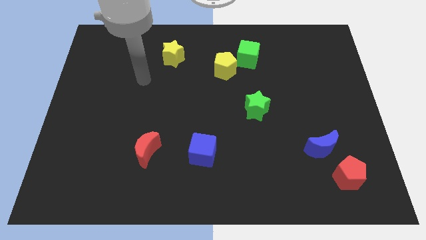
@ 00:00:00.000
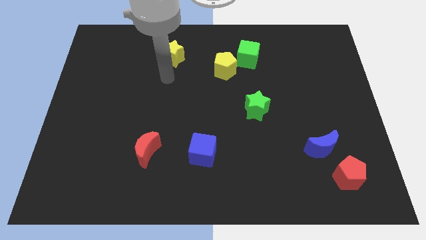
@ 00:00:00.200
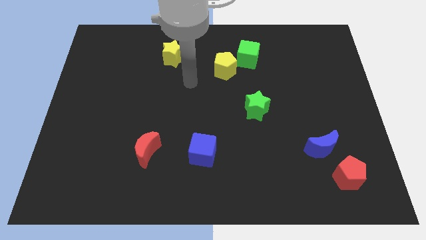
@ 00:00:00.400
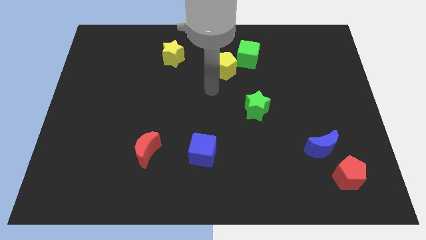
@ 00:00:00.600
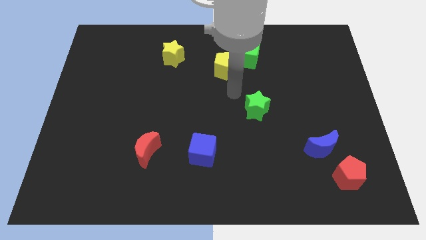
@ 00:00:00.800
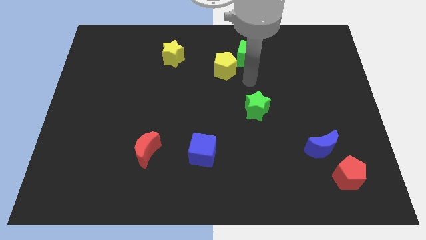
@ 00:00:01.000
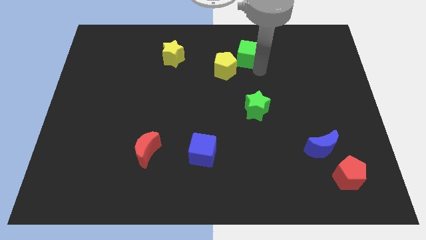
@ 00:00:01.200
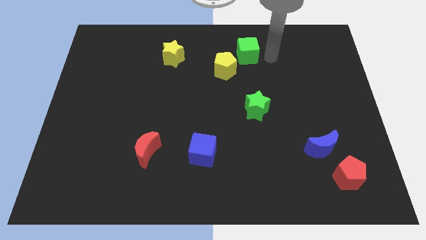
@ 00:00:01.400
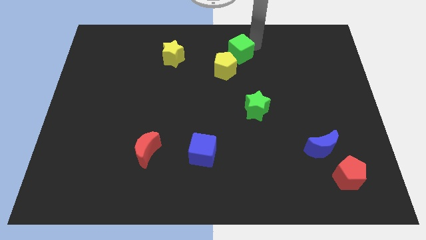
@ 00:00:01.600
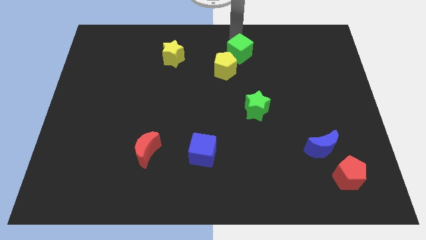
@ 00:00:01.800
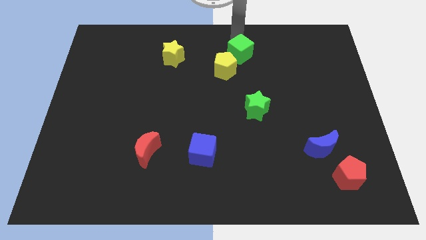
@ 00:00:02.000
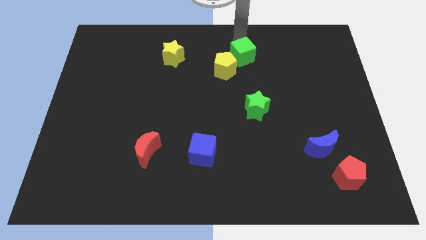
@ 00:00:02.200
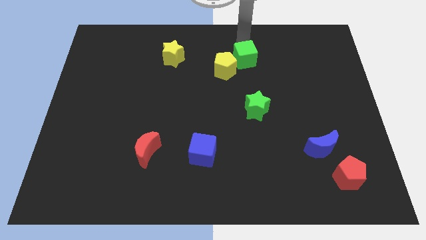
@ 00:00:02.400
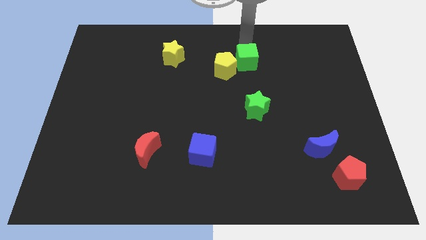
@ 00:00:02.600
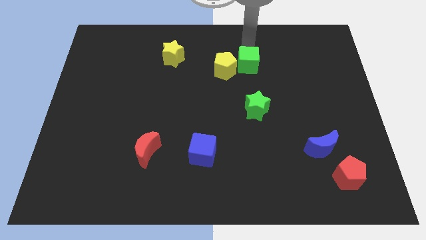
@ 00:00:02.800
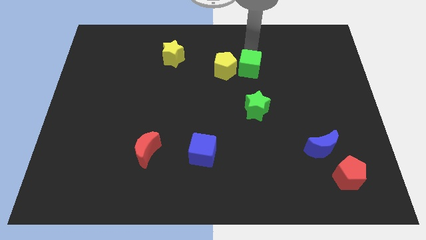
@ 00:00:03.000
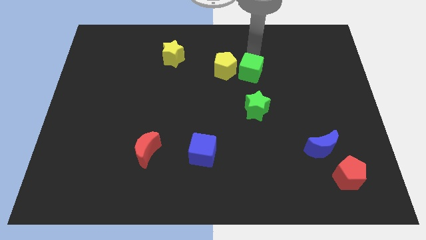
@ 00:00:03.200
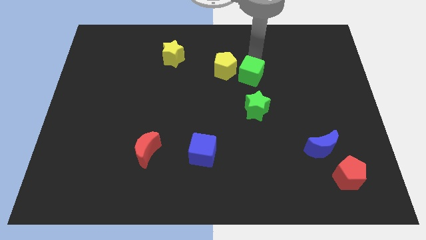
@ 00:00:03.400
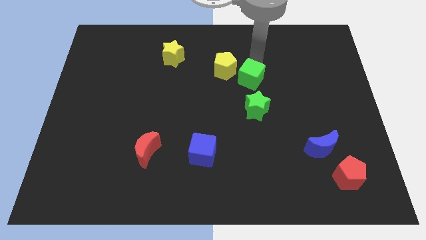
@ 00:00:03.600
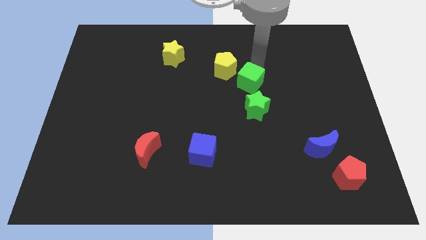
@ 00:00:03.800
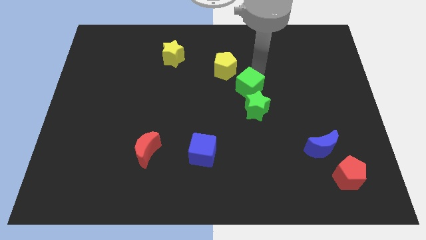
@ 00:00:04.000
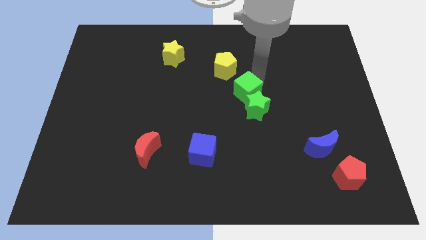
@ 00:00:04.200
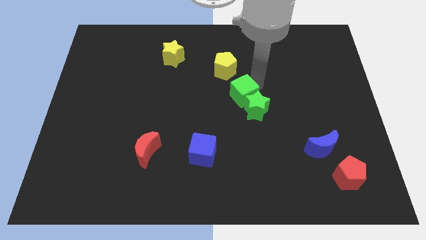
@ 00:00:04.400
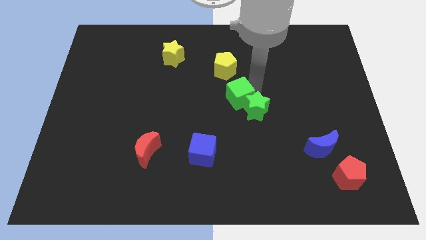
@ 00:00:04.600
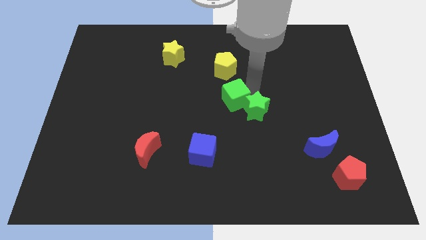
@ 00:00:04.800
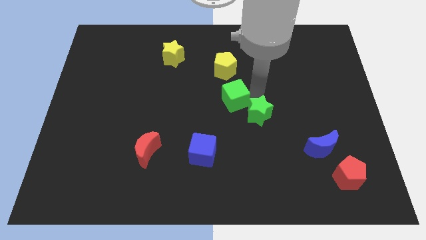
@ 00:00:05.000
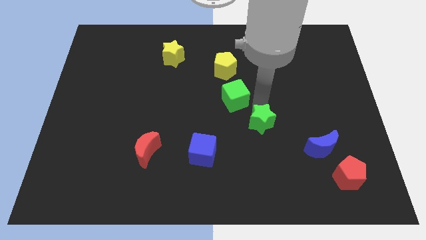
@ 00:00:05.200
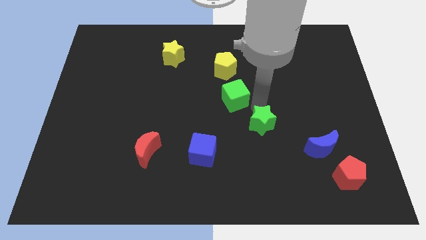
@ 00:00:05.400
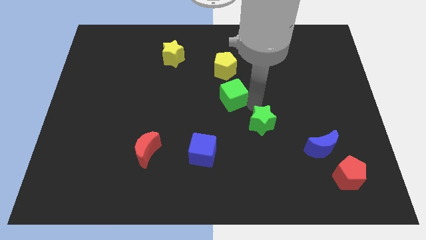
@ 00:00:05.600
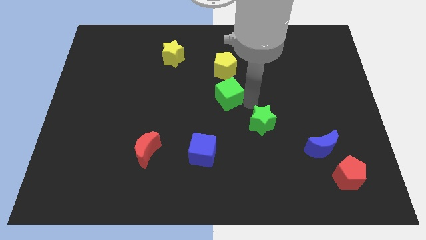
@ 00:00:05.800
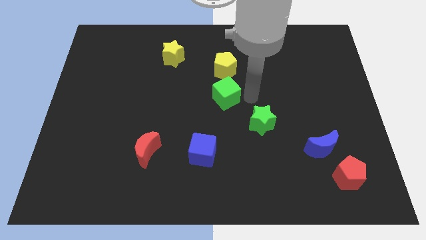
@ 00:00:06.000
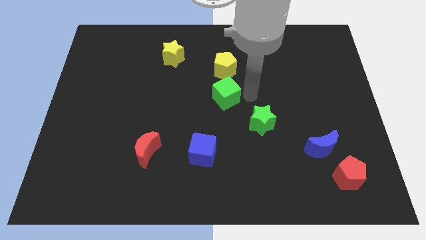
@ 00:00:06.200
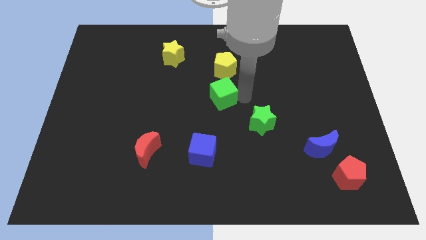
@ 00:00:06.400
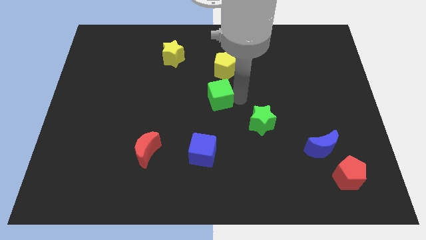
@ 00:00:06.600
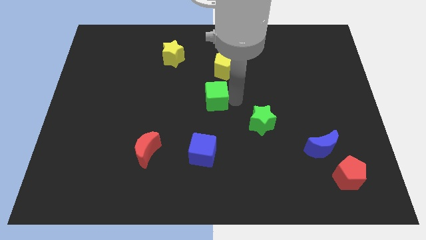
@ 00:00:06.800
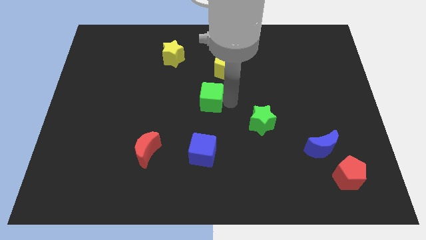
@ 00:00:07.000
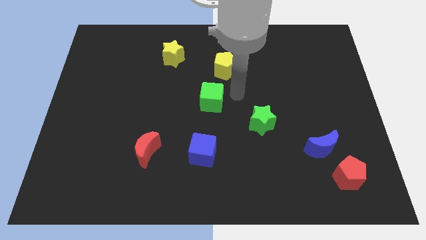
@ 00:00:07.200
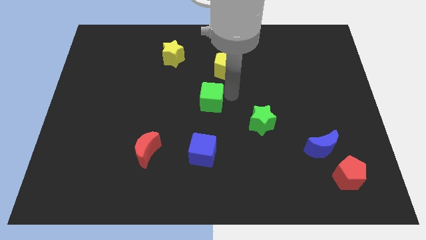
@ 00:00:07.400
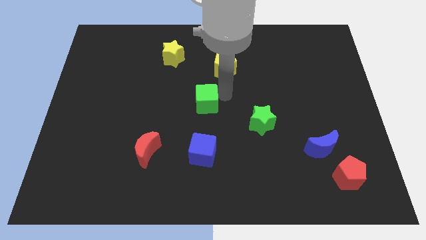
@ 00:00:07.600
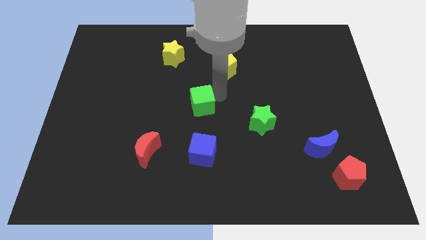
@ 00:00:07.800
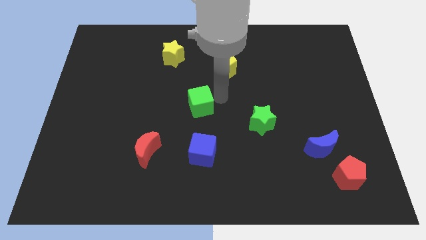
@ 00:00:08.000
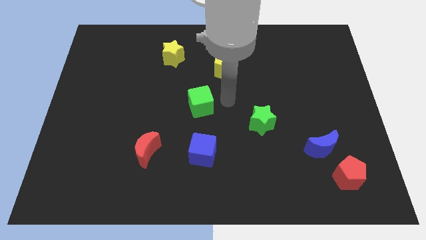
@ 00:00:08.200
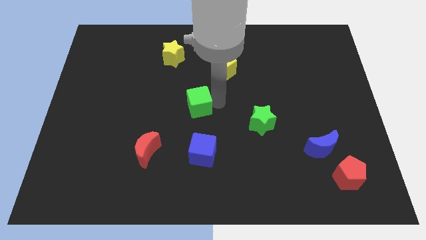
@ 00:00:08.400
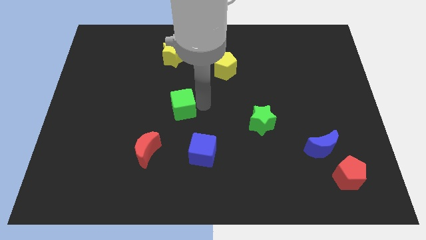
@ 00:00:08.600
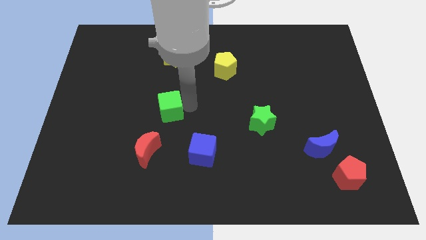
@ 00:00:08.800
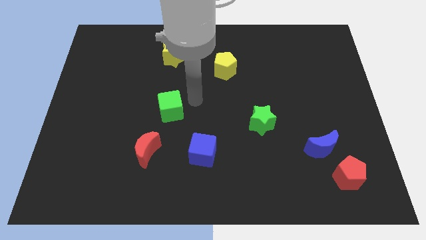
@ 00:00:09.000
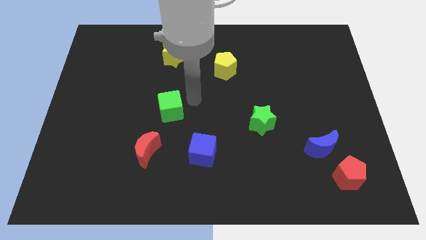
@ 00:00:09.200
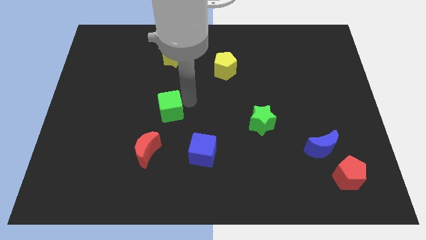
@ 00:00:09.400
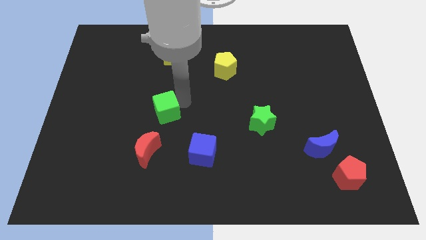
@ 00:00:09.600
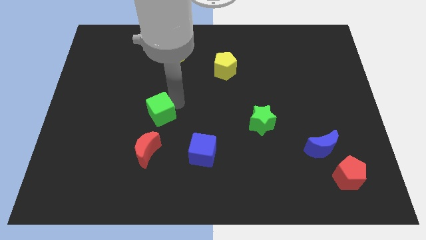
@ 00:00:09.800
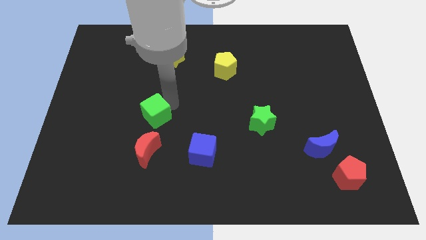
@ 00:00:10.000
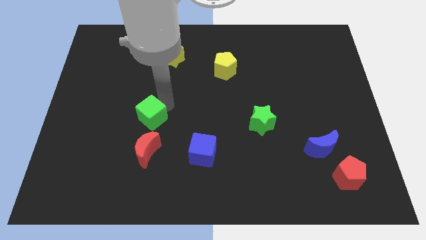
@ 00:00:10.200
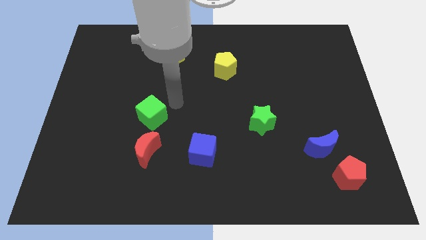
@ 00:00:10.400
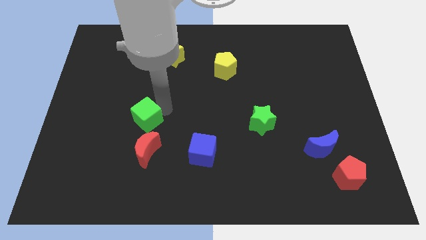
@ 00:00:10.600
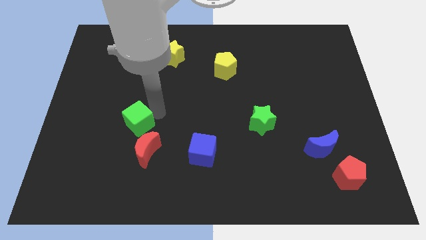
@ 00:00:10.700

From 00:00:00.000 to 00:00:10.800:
slide the green cube diagonally up and to the left of the red moon

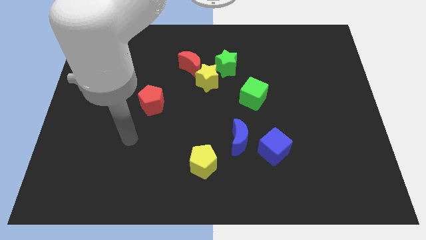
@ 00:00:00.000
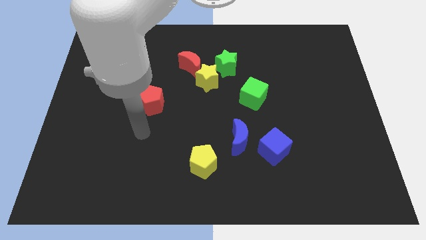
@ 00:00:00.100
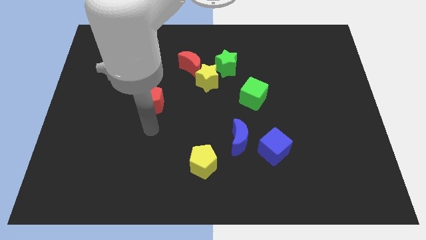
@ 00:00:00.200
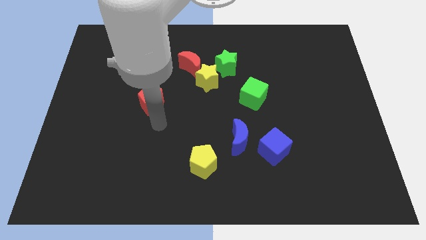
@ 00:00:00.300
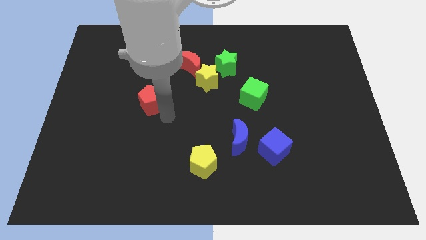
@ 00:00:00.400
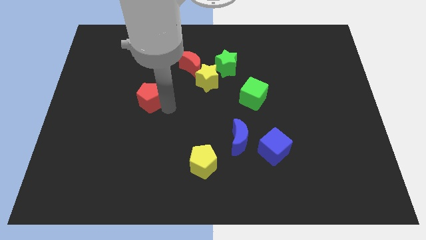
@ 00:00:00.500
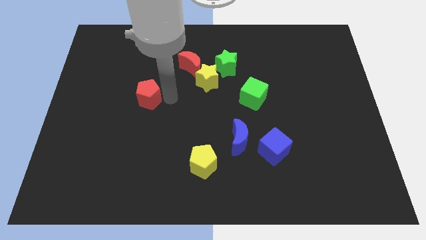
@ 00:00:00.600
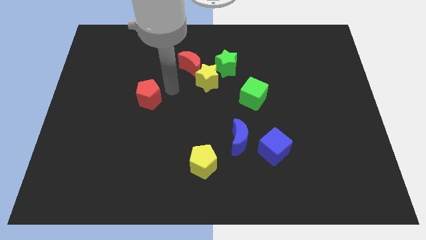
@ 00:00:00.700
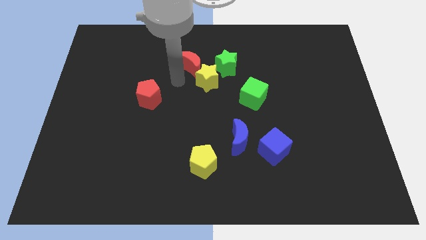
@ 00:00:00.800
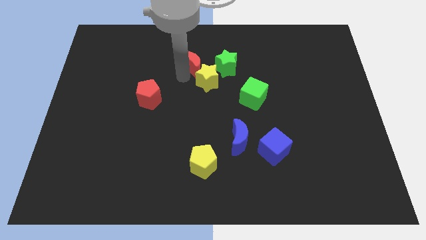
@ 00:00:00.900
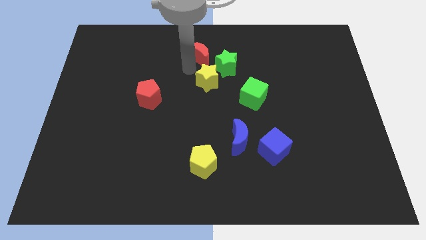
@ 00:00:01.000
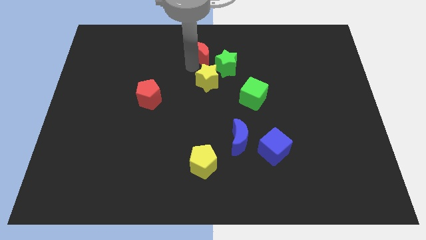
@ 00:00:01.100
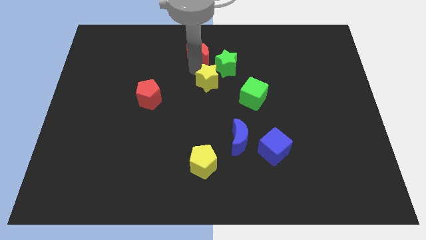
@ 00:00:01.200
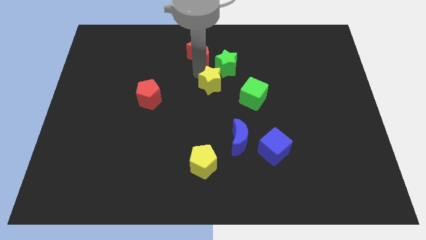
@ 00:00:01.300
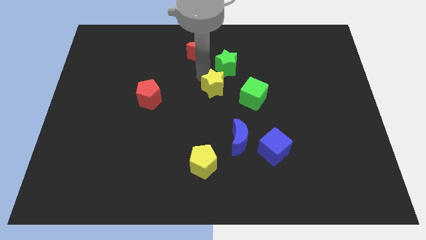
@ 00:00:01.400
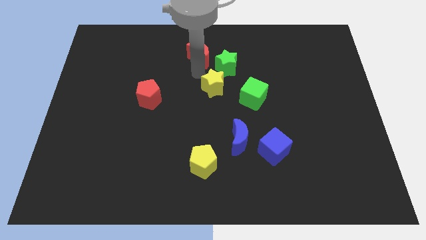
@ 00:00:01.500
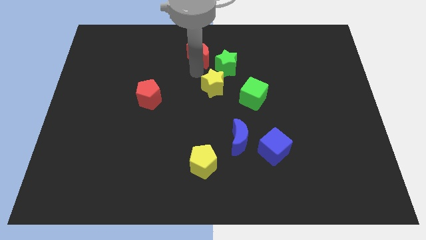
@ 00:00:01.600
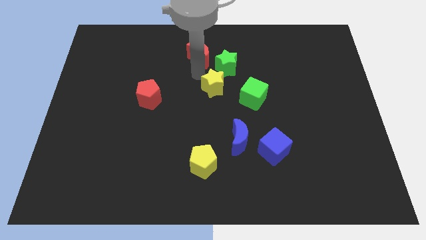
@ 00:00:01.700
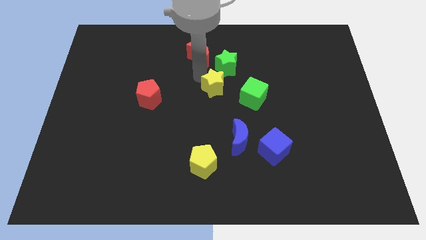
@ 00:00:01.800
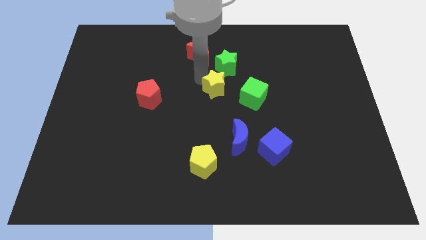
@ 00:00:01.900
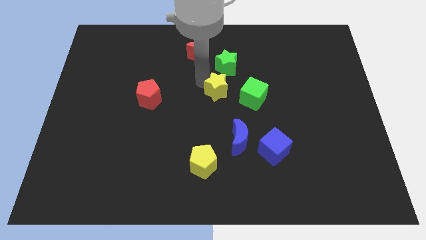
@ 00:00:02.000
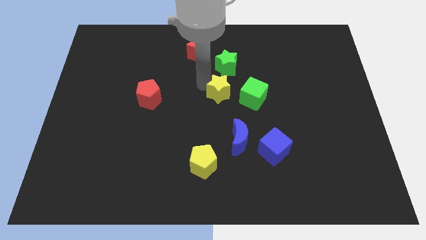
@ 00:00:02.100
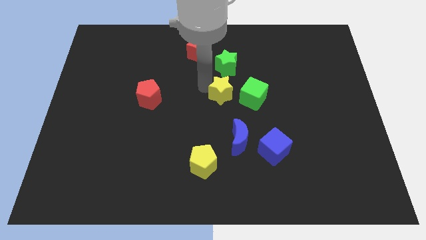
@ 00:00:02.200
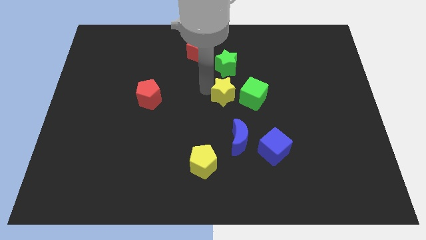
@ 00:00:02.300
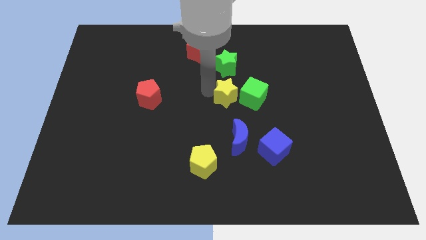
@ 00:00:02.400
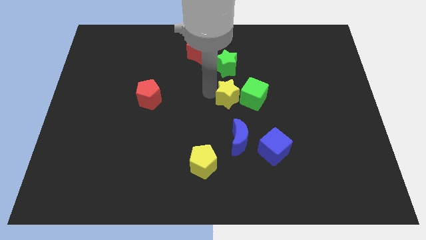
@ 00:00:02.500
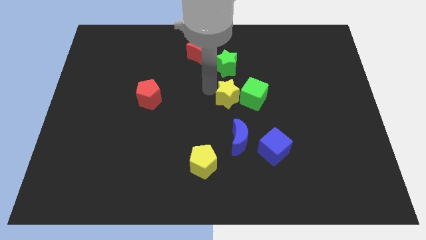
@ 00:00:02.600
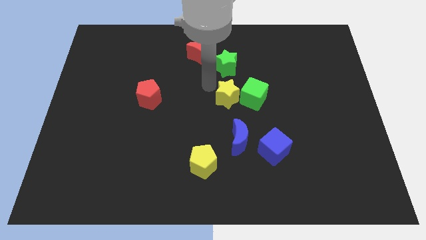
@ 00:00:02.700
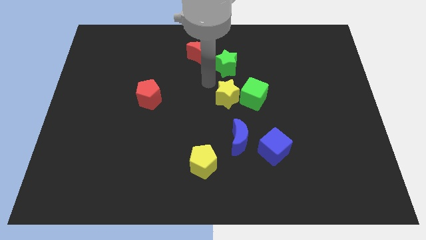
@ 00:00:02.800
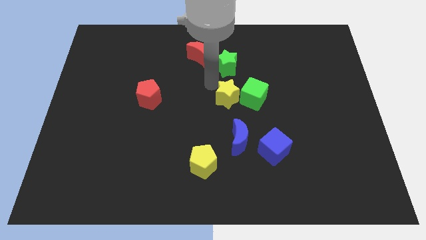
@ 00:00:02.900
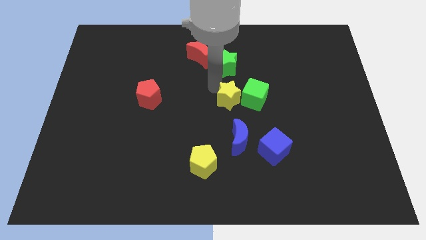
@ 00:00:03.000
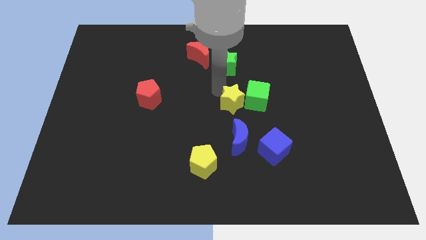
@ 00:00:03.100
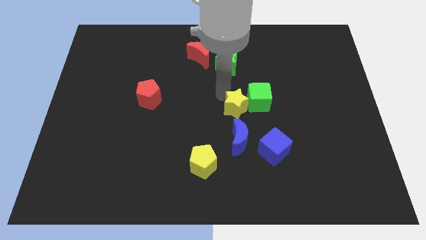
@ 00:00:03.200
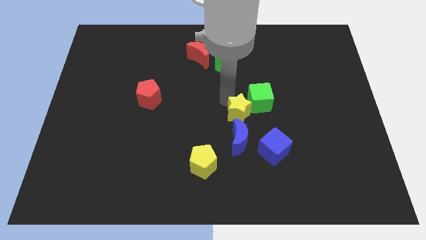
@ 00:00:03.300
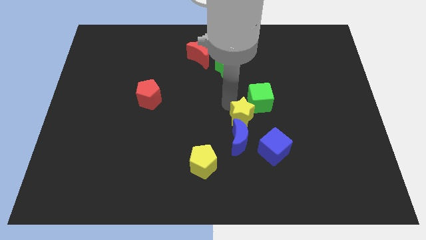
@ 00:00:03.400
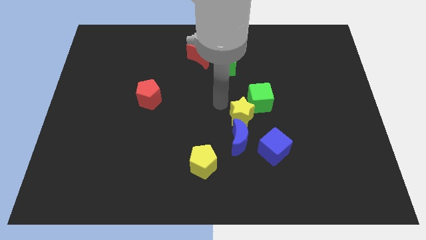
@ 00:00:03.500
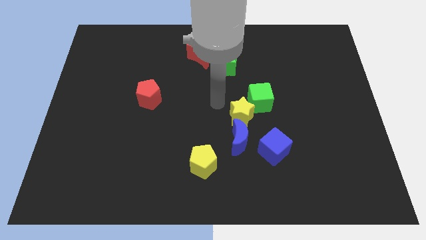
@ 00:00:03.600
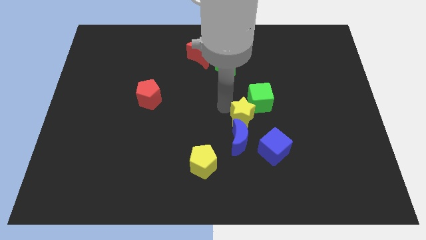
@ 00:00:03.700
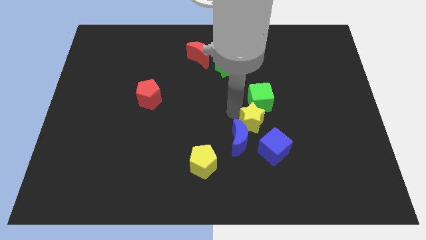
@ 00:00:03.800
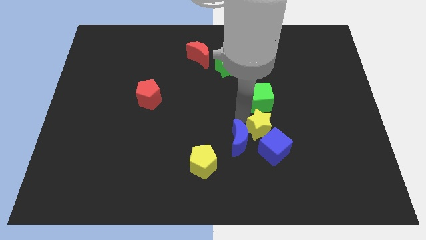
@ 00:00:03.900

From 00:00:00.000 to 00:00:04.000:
put the yellow star just right of the blue moon
